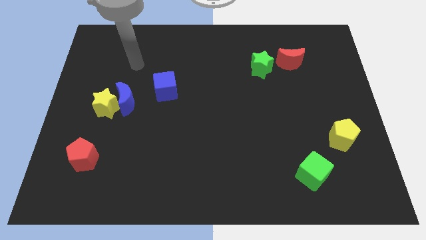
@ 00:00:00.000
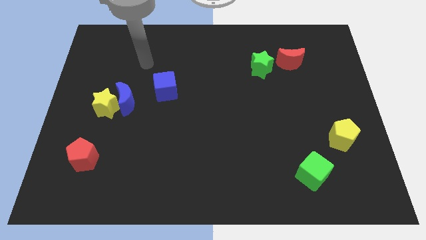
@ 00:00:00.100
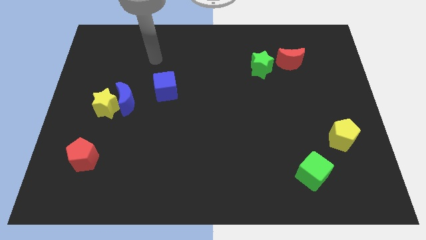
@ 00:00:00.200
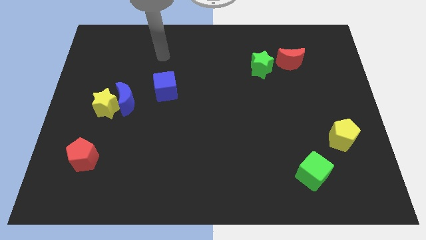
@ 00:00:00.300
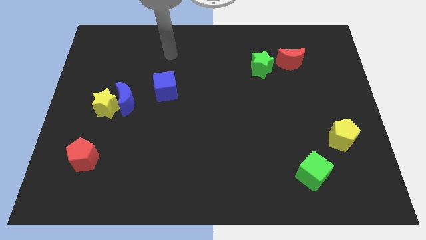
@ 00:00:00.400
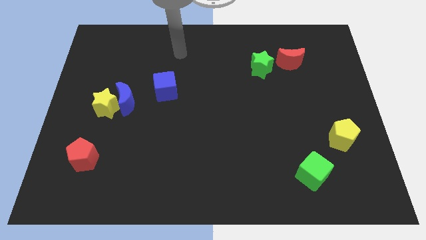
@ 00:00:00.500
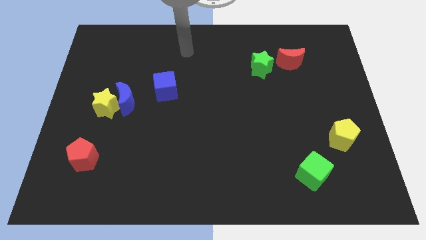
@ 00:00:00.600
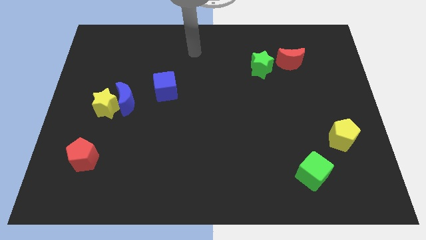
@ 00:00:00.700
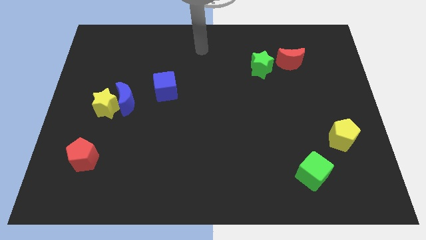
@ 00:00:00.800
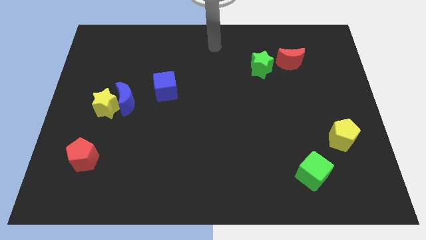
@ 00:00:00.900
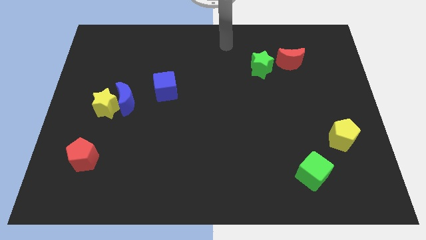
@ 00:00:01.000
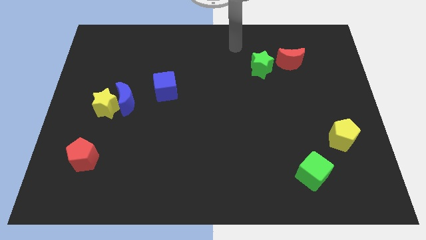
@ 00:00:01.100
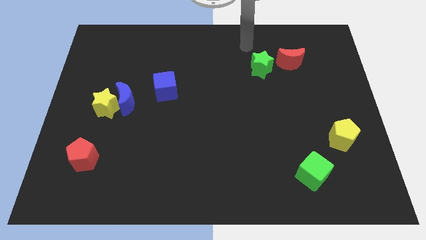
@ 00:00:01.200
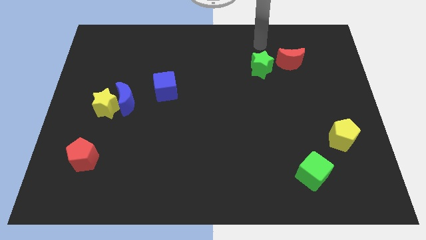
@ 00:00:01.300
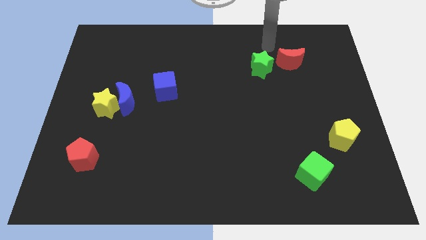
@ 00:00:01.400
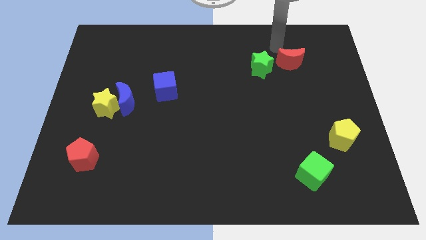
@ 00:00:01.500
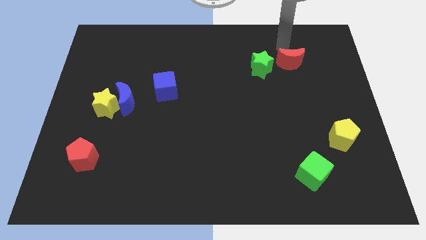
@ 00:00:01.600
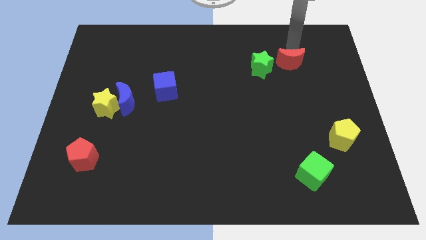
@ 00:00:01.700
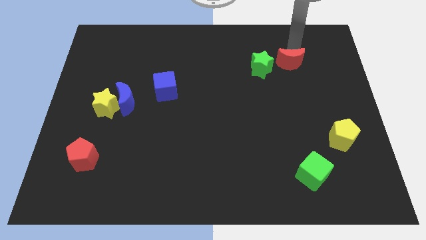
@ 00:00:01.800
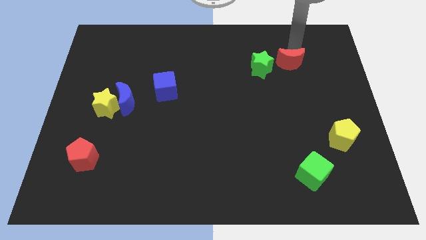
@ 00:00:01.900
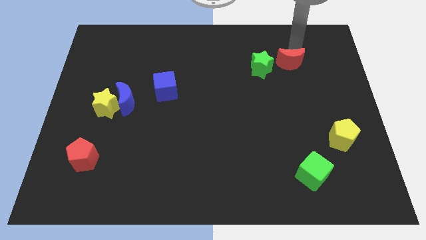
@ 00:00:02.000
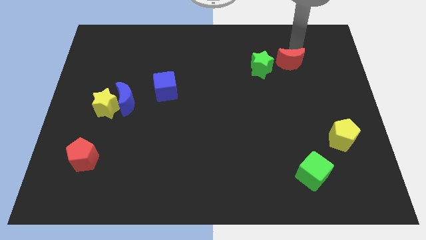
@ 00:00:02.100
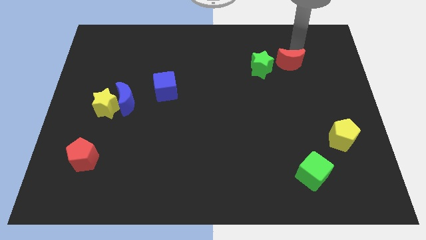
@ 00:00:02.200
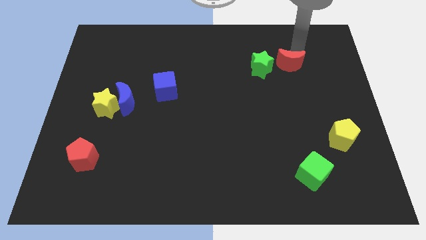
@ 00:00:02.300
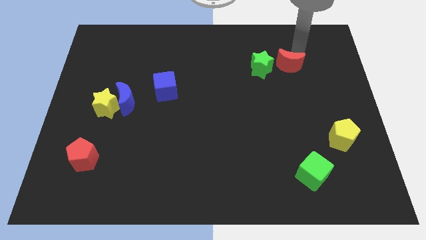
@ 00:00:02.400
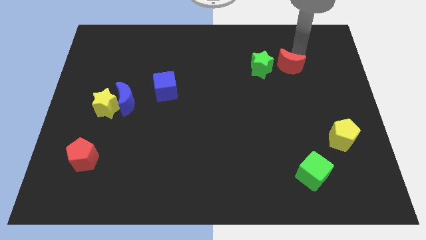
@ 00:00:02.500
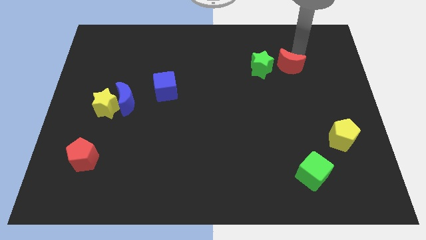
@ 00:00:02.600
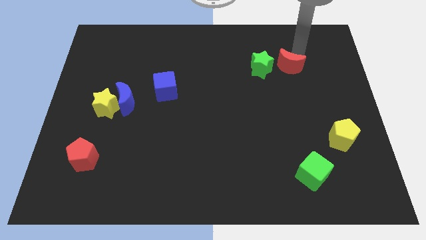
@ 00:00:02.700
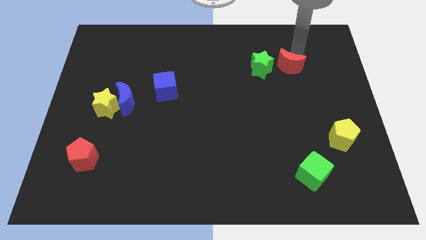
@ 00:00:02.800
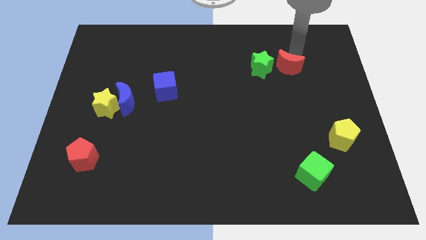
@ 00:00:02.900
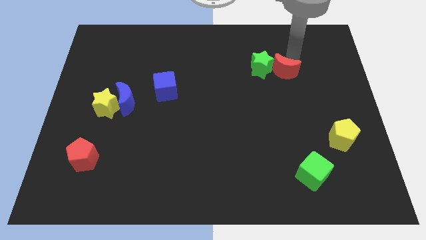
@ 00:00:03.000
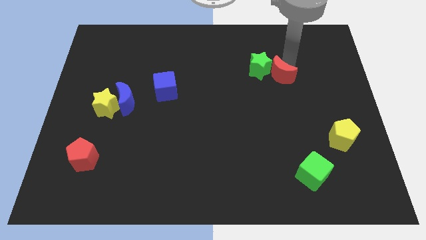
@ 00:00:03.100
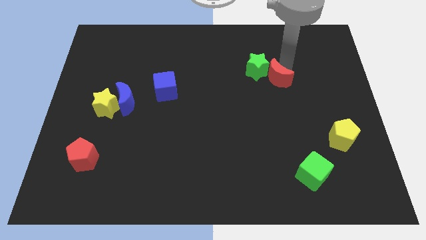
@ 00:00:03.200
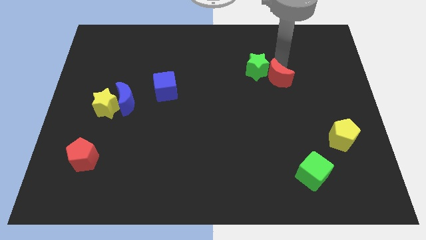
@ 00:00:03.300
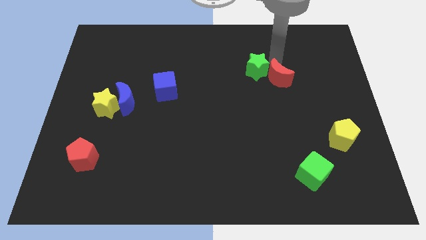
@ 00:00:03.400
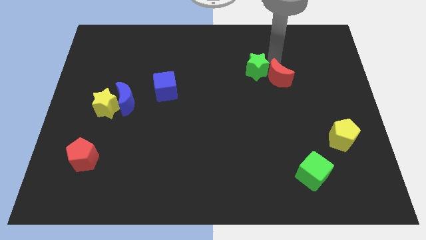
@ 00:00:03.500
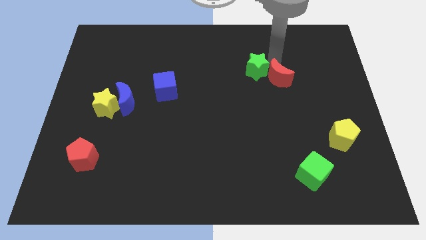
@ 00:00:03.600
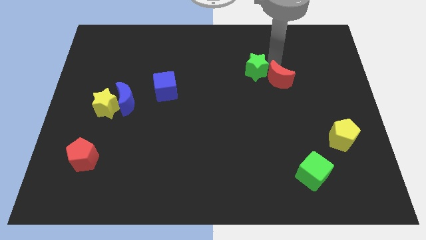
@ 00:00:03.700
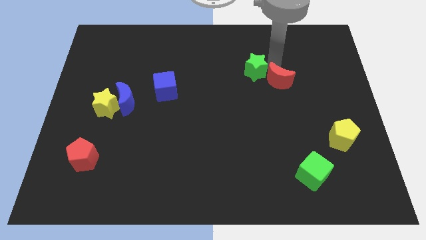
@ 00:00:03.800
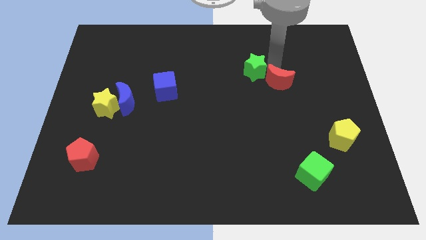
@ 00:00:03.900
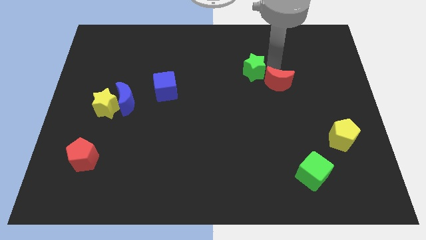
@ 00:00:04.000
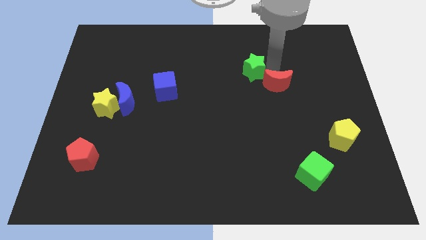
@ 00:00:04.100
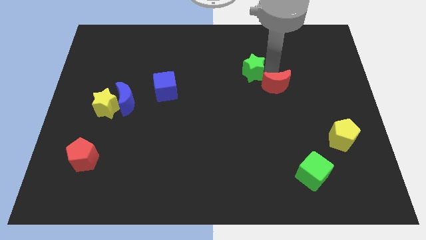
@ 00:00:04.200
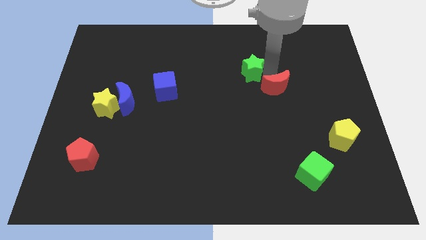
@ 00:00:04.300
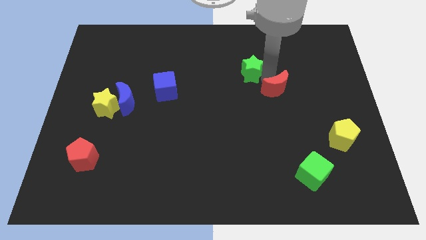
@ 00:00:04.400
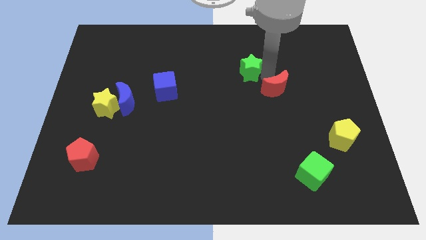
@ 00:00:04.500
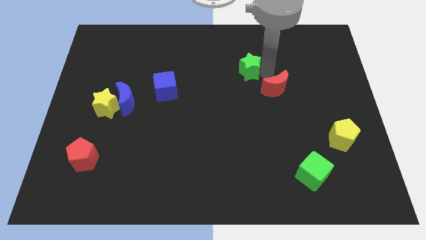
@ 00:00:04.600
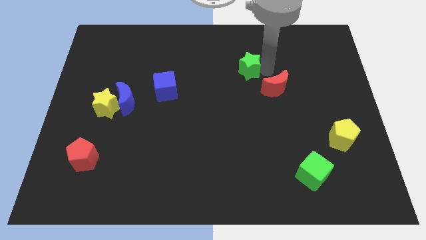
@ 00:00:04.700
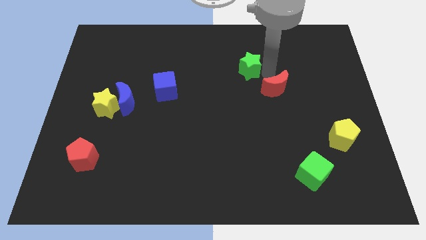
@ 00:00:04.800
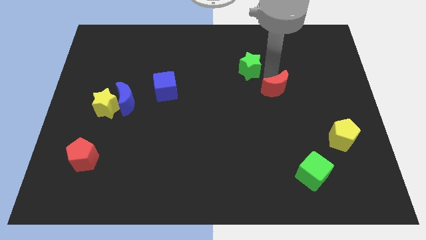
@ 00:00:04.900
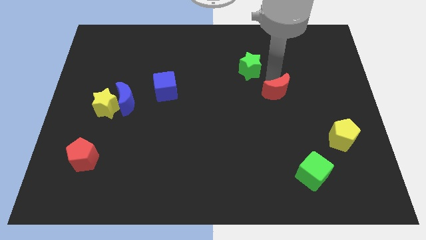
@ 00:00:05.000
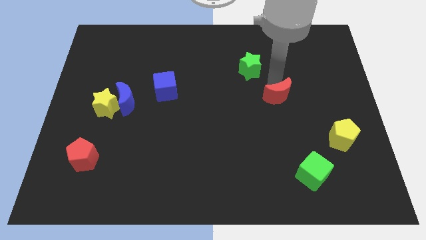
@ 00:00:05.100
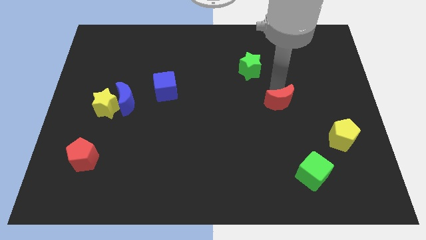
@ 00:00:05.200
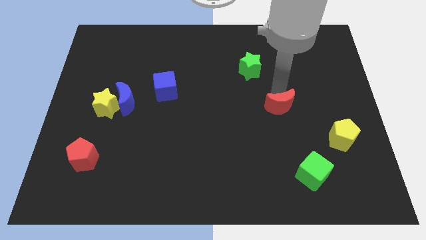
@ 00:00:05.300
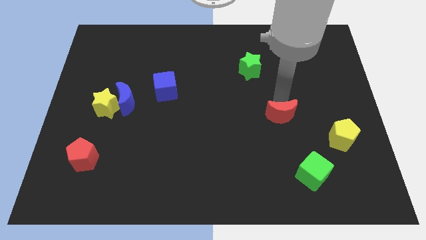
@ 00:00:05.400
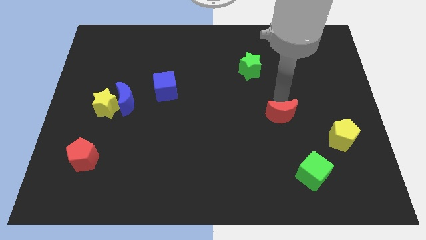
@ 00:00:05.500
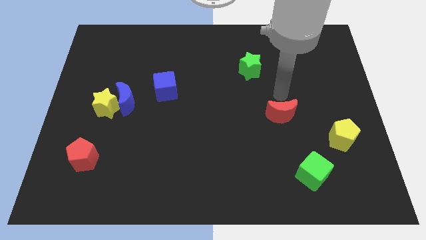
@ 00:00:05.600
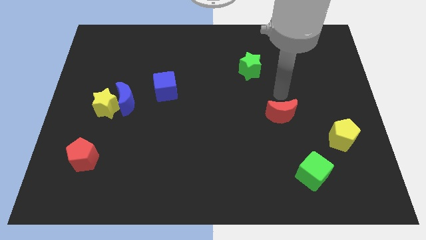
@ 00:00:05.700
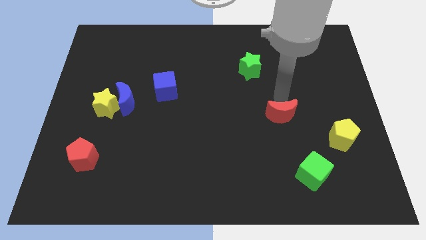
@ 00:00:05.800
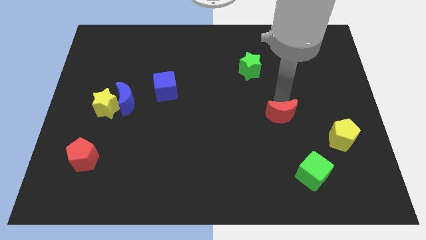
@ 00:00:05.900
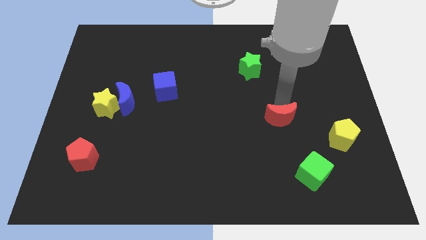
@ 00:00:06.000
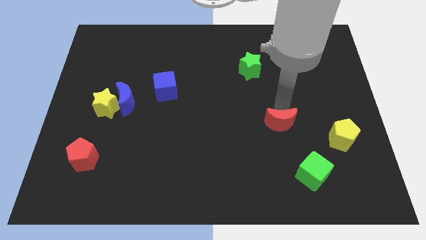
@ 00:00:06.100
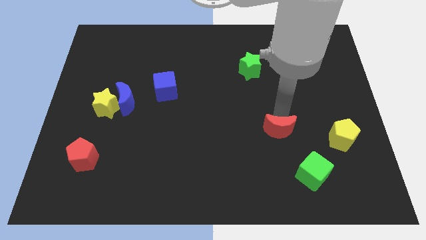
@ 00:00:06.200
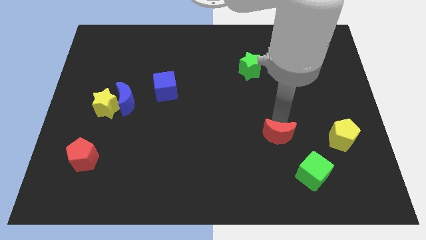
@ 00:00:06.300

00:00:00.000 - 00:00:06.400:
put the red moon diagonally up and to the left of the green cube

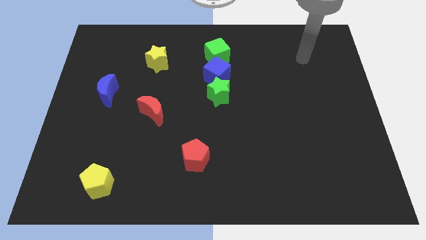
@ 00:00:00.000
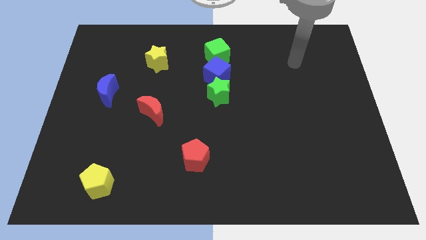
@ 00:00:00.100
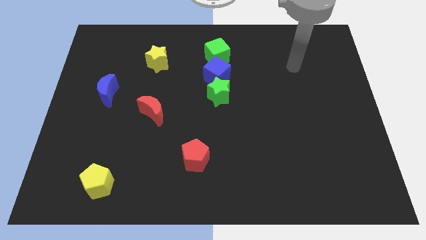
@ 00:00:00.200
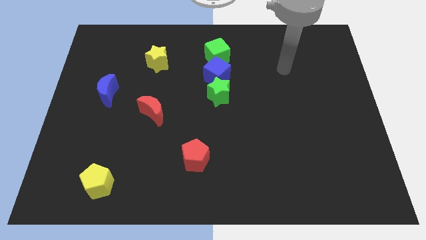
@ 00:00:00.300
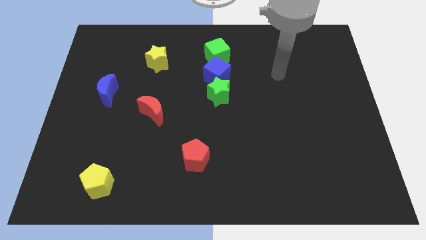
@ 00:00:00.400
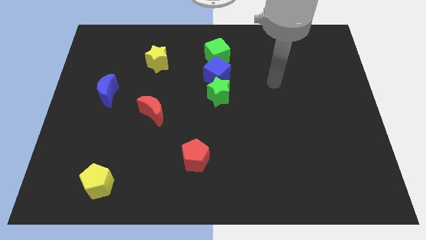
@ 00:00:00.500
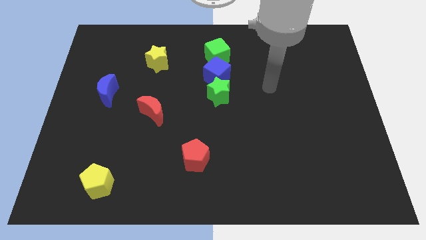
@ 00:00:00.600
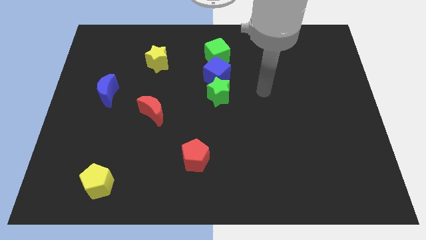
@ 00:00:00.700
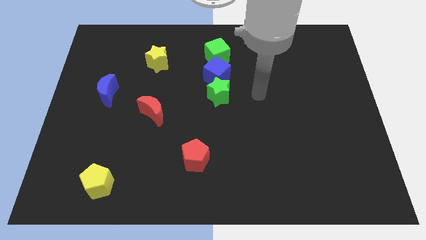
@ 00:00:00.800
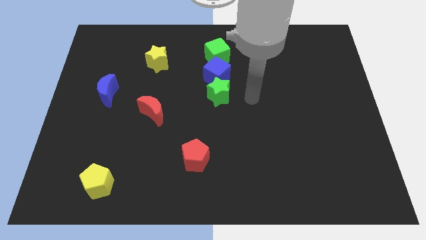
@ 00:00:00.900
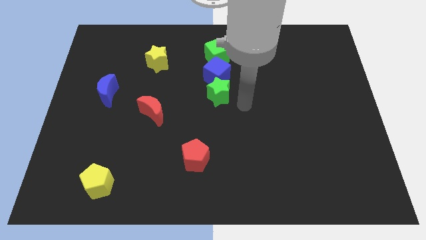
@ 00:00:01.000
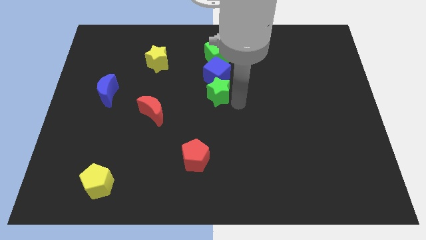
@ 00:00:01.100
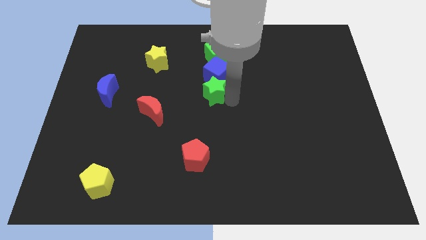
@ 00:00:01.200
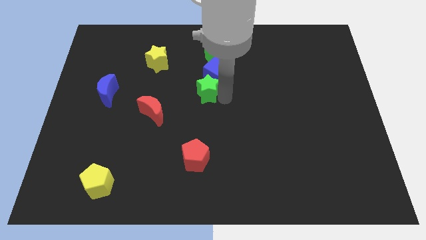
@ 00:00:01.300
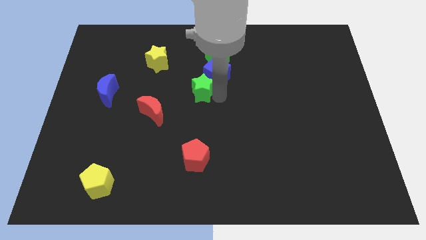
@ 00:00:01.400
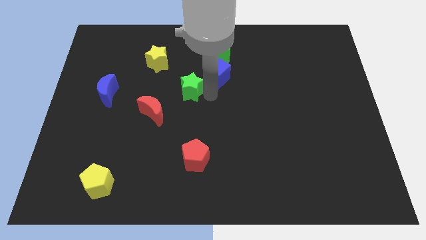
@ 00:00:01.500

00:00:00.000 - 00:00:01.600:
push the green star to the left of the blue cube
